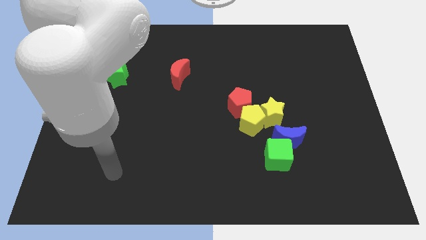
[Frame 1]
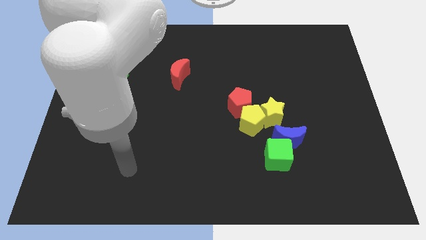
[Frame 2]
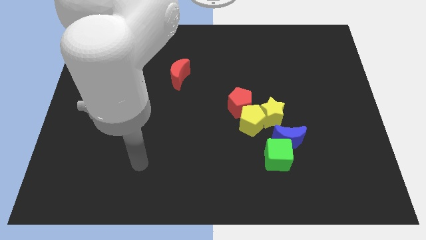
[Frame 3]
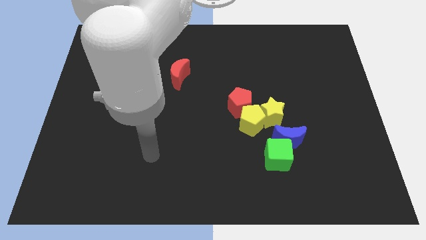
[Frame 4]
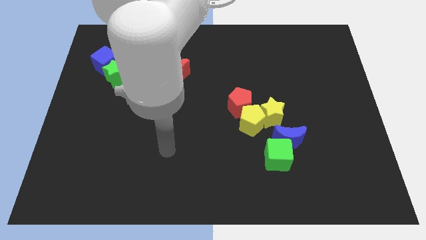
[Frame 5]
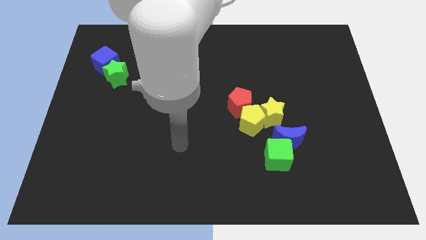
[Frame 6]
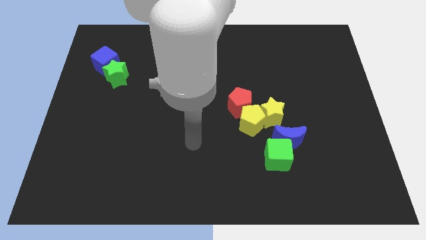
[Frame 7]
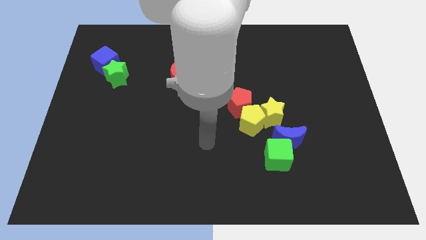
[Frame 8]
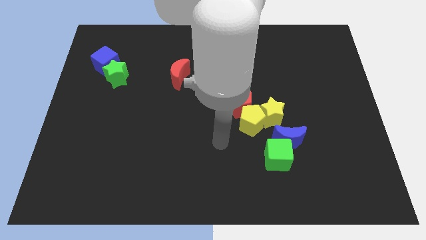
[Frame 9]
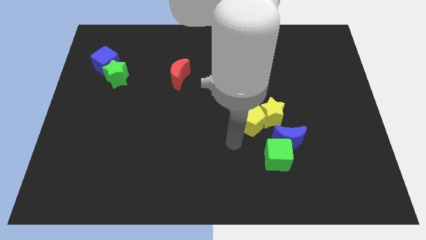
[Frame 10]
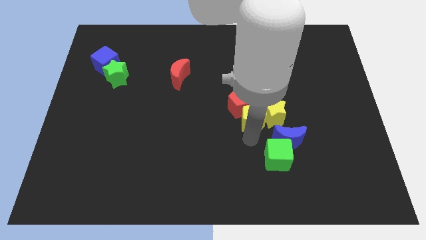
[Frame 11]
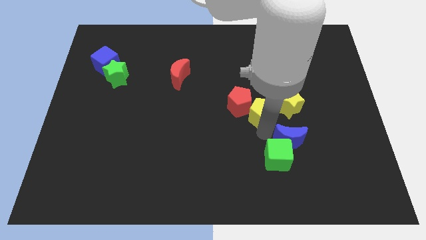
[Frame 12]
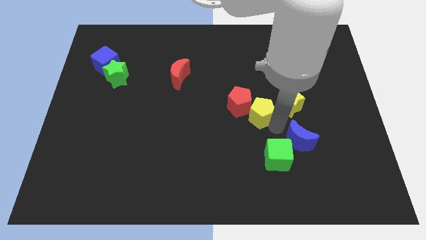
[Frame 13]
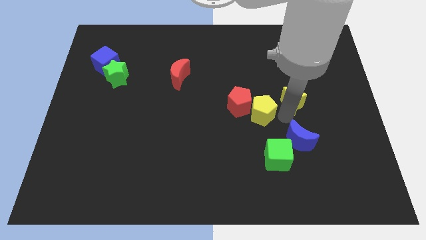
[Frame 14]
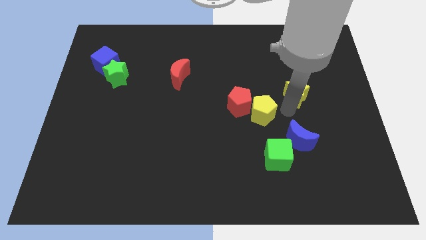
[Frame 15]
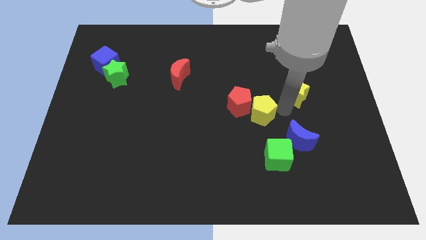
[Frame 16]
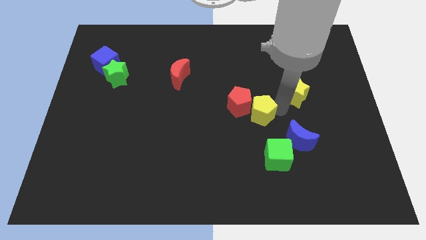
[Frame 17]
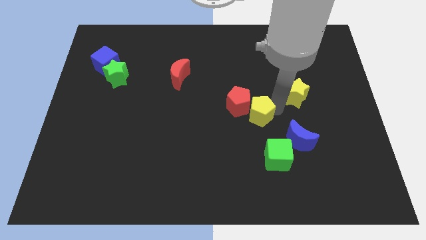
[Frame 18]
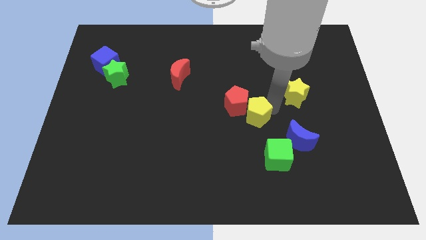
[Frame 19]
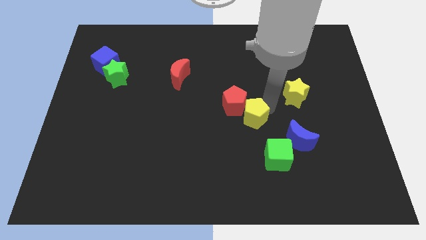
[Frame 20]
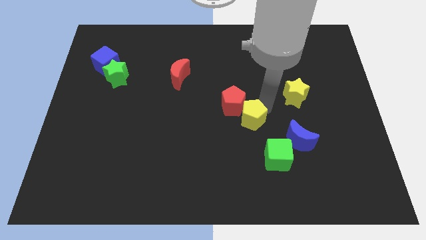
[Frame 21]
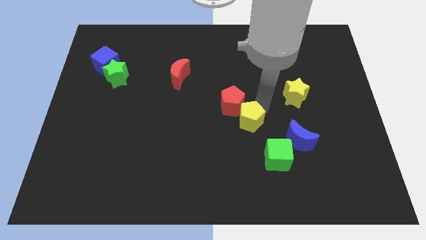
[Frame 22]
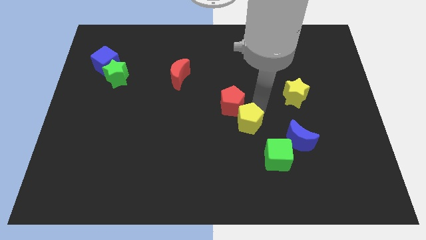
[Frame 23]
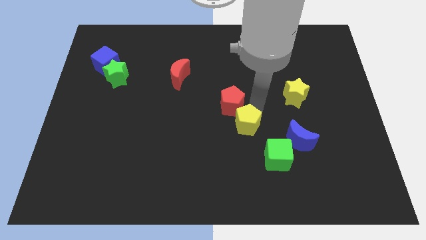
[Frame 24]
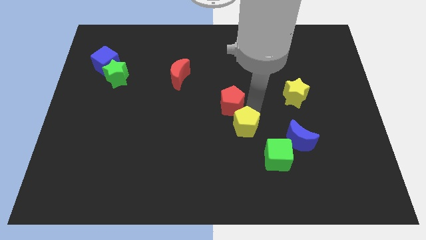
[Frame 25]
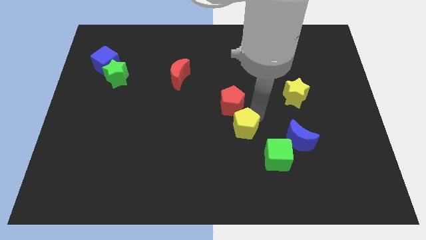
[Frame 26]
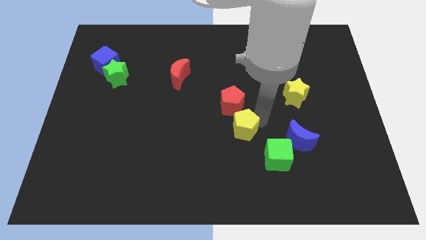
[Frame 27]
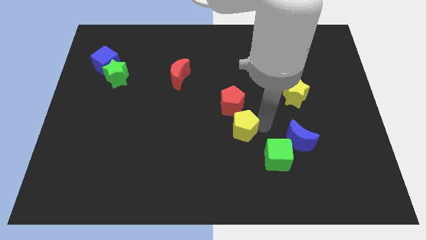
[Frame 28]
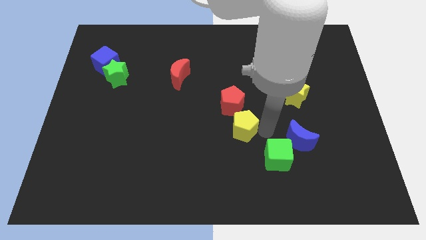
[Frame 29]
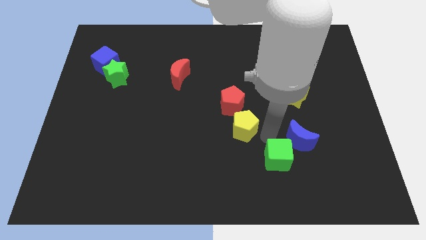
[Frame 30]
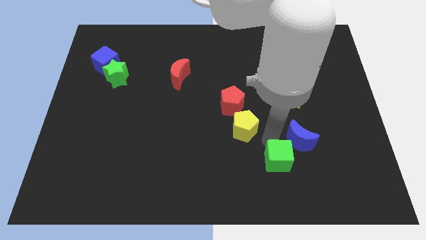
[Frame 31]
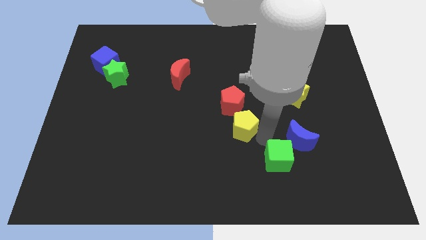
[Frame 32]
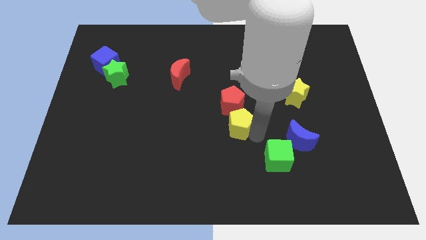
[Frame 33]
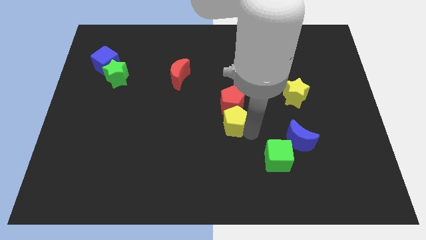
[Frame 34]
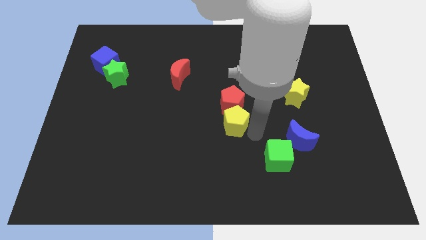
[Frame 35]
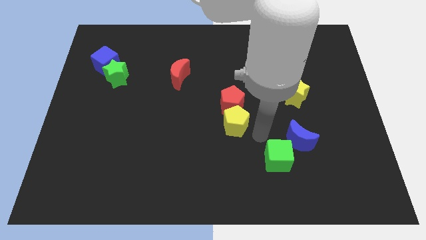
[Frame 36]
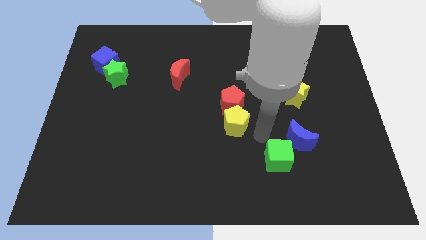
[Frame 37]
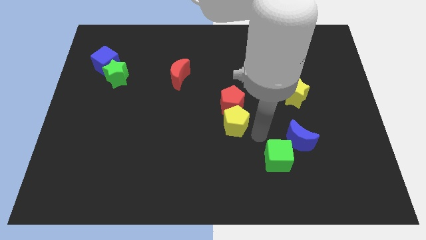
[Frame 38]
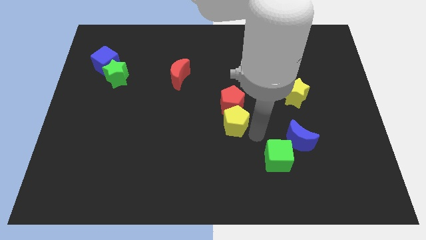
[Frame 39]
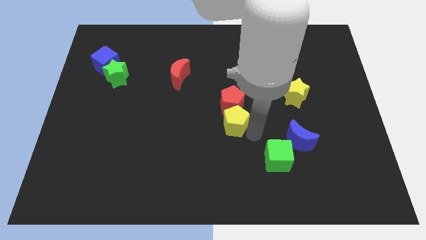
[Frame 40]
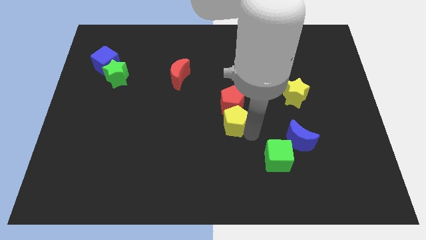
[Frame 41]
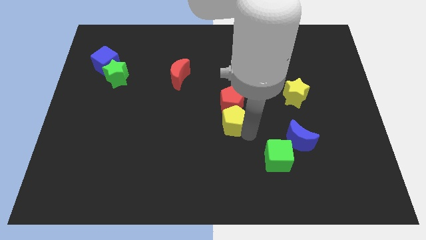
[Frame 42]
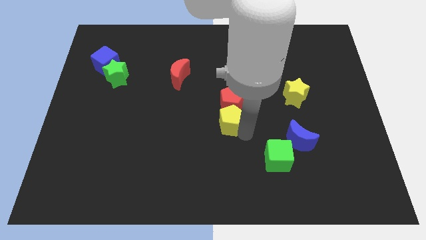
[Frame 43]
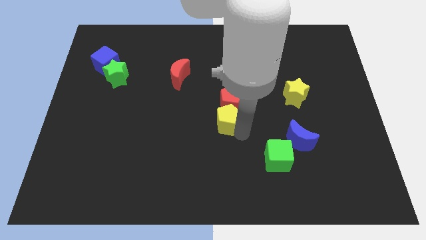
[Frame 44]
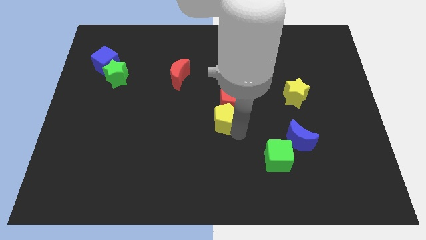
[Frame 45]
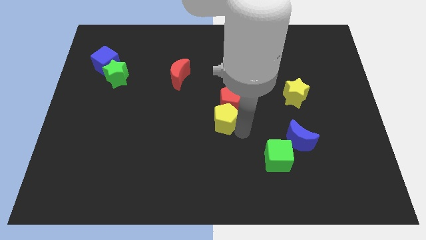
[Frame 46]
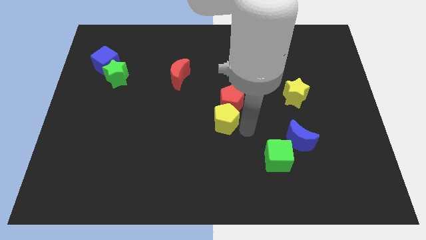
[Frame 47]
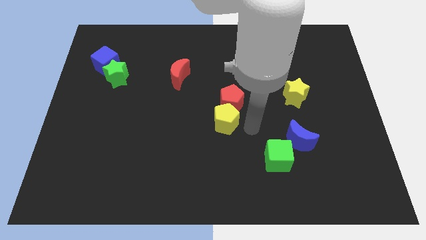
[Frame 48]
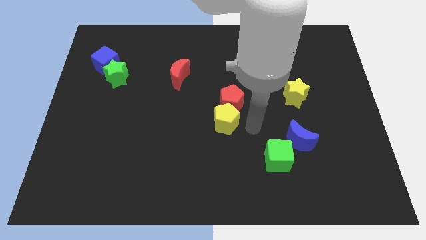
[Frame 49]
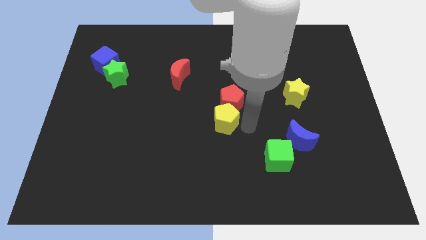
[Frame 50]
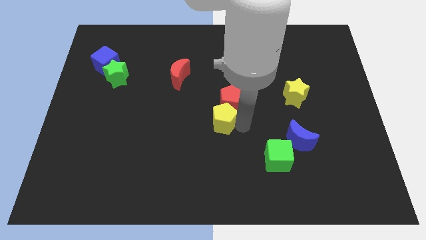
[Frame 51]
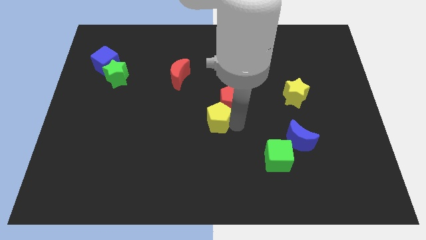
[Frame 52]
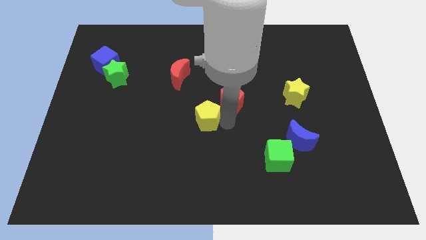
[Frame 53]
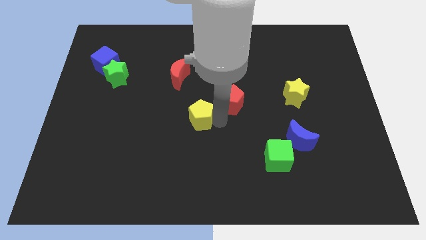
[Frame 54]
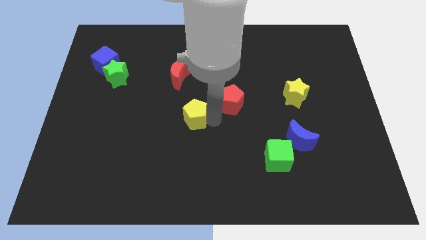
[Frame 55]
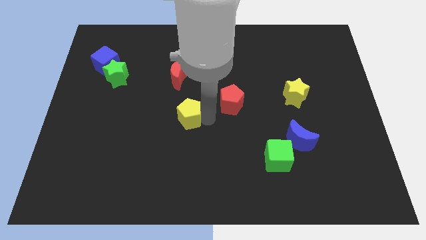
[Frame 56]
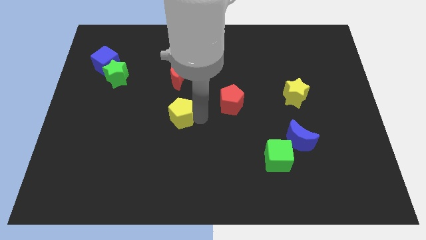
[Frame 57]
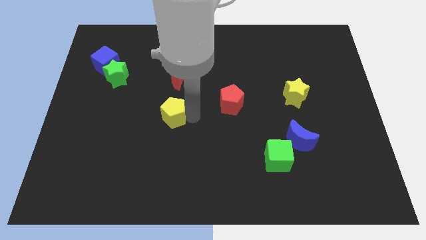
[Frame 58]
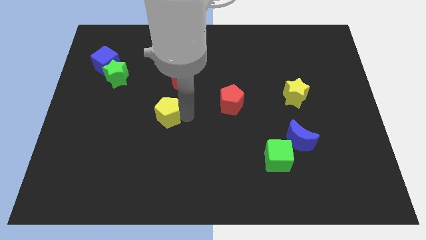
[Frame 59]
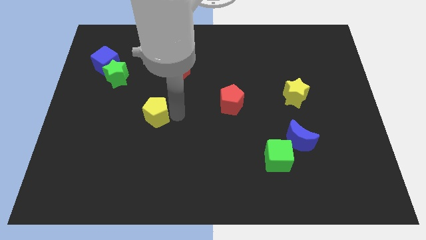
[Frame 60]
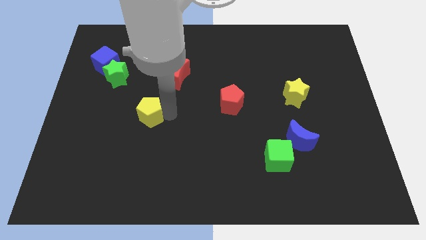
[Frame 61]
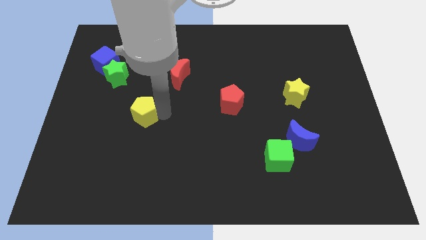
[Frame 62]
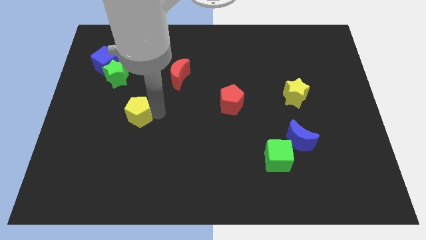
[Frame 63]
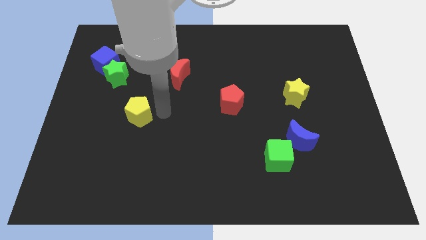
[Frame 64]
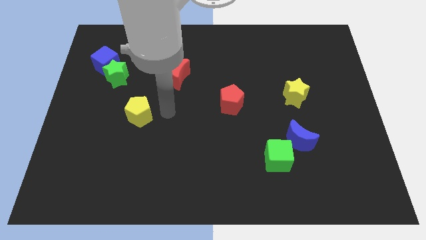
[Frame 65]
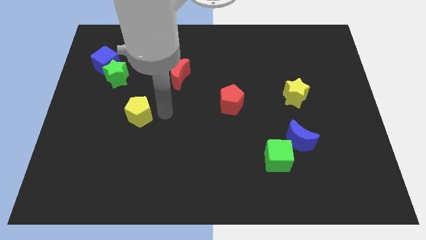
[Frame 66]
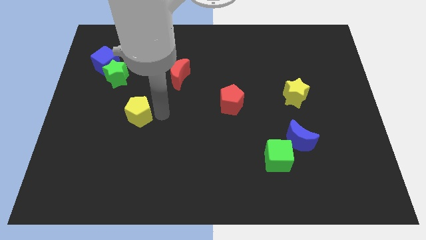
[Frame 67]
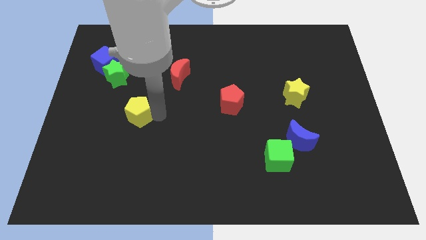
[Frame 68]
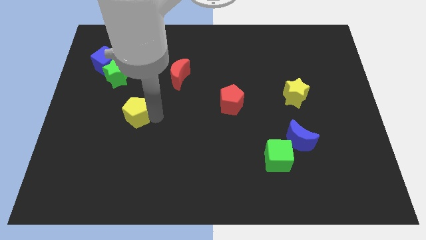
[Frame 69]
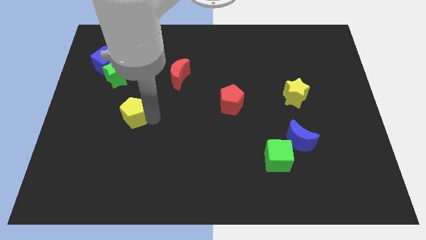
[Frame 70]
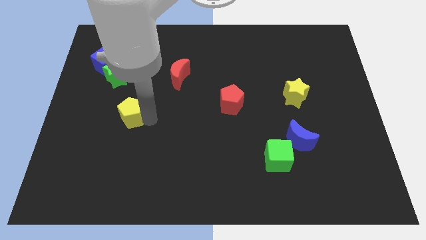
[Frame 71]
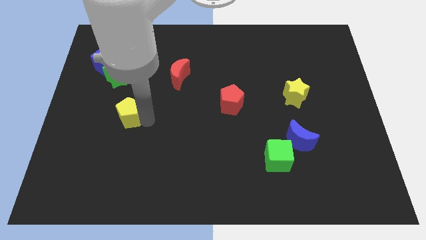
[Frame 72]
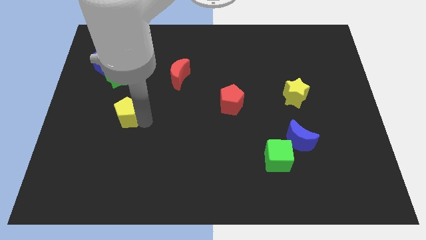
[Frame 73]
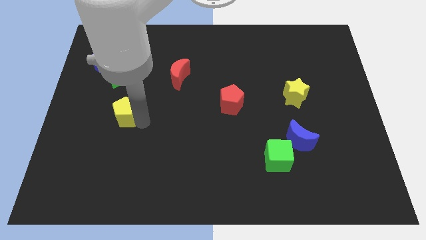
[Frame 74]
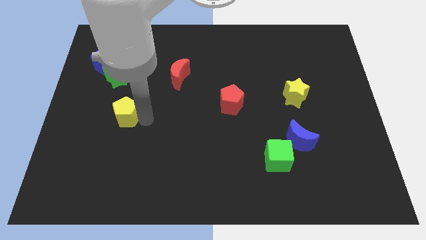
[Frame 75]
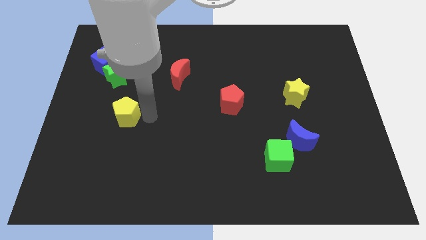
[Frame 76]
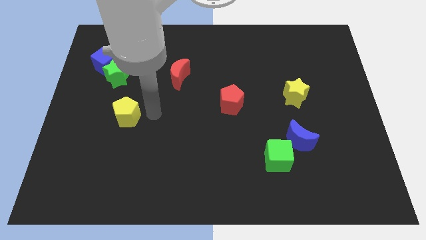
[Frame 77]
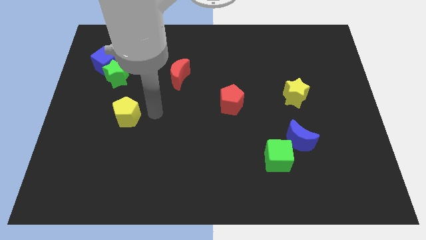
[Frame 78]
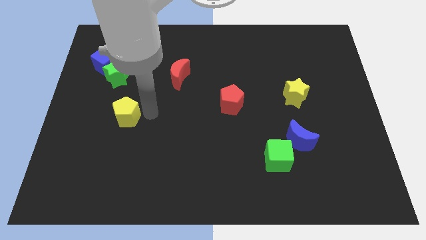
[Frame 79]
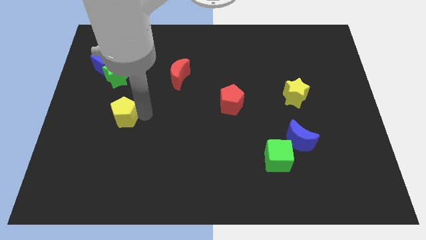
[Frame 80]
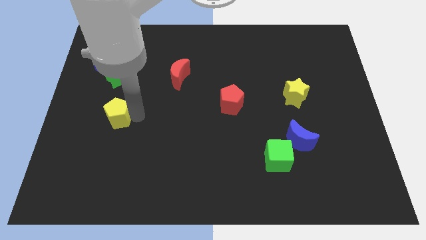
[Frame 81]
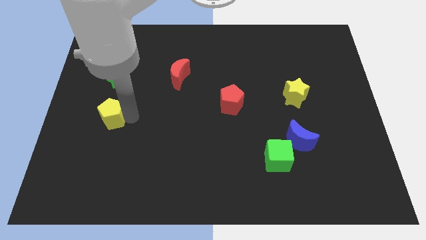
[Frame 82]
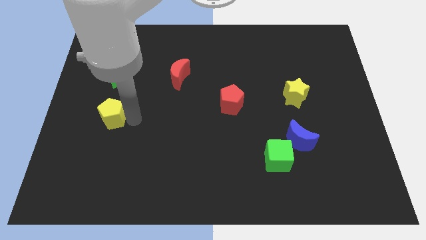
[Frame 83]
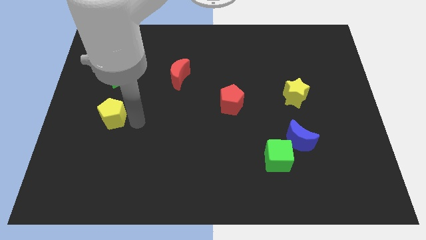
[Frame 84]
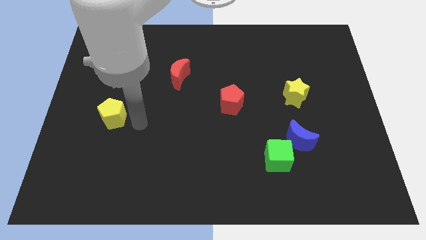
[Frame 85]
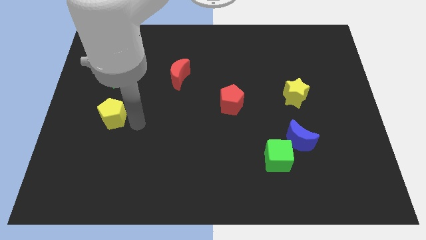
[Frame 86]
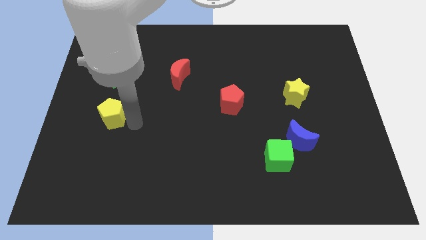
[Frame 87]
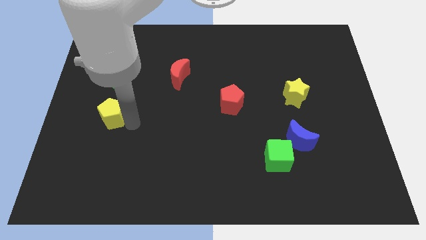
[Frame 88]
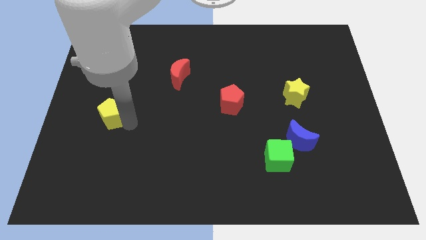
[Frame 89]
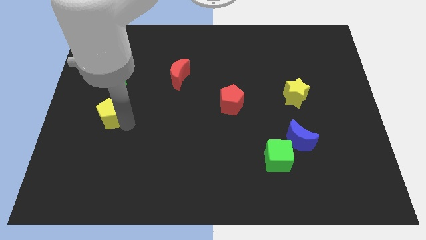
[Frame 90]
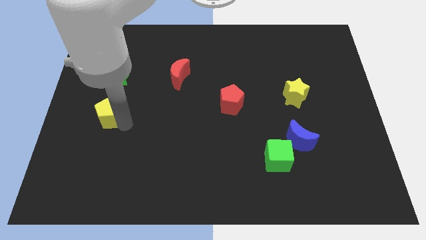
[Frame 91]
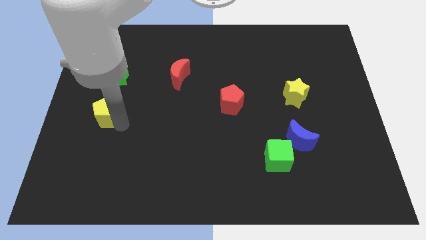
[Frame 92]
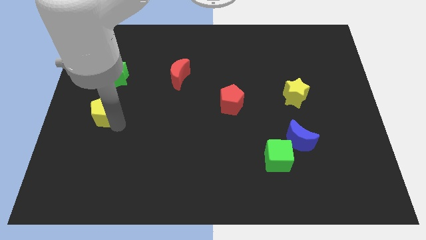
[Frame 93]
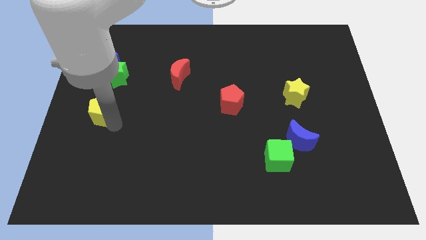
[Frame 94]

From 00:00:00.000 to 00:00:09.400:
put the yellow pentagon to the left side of the board
